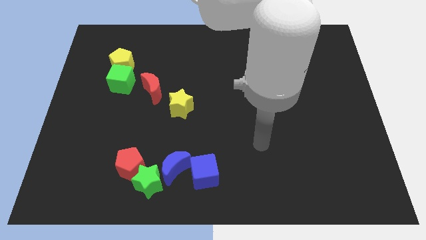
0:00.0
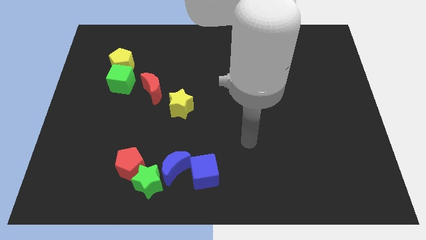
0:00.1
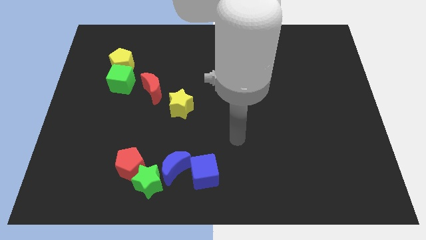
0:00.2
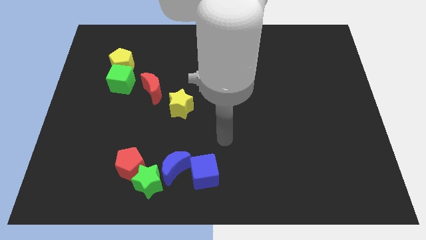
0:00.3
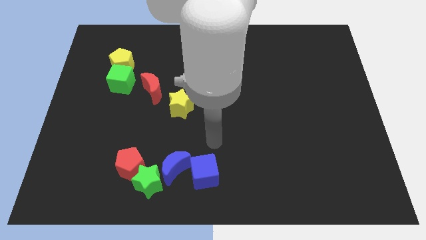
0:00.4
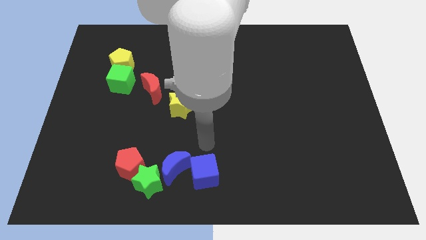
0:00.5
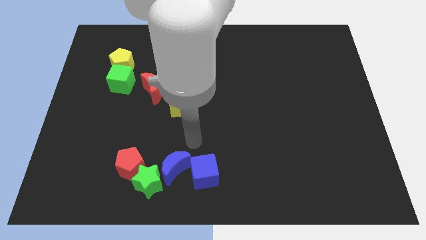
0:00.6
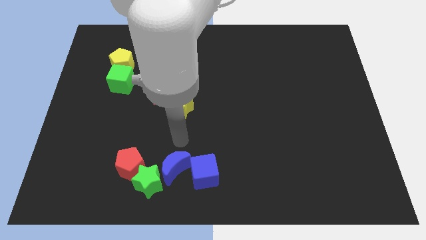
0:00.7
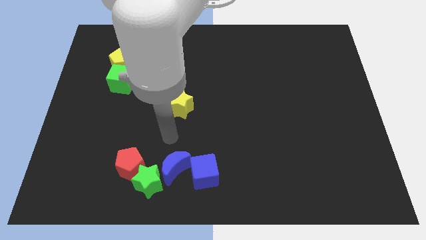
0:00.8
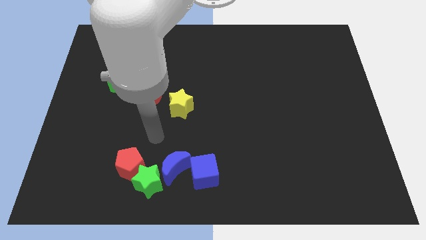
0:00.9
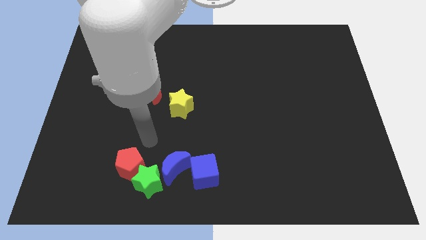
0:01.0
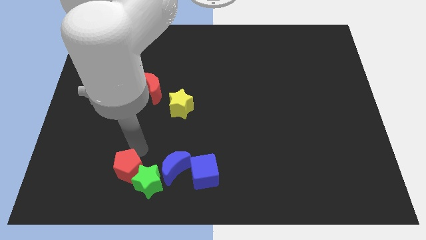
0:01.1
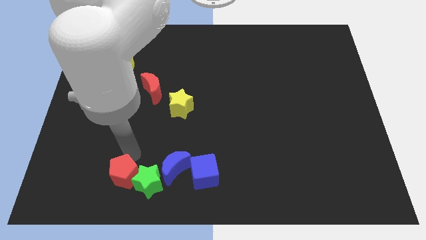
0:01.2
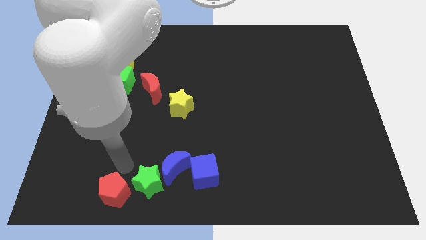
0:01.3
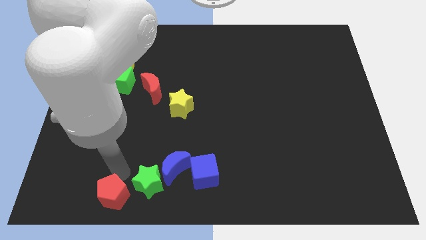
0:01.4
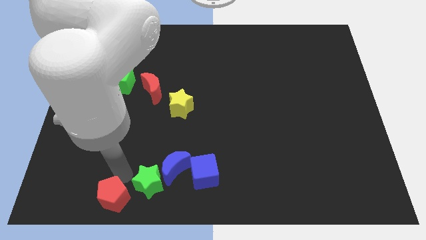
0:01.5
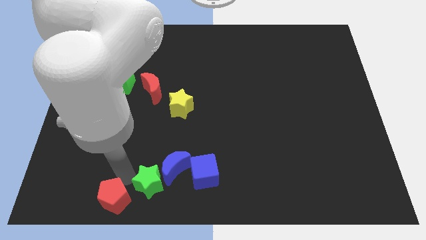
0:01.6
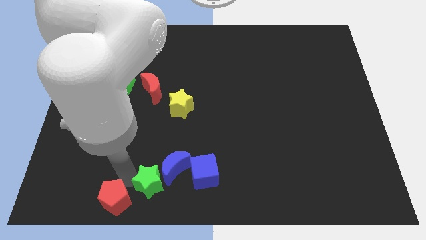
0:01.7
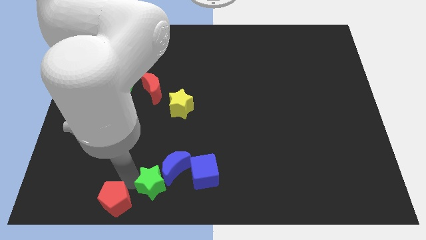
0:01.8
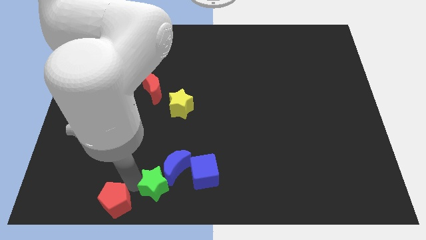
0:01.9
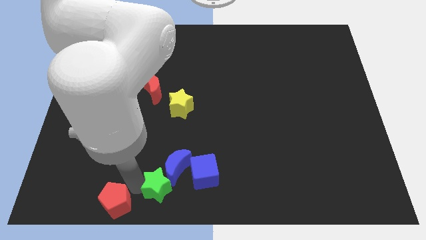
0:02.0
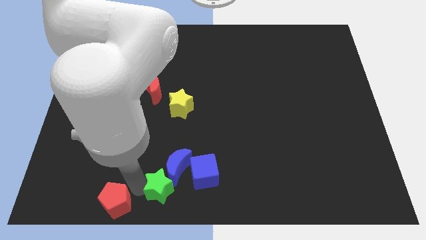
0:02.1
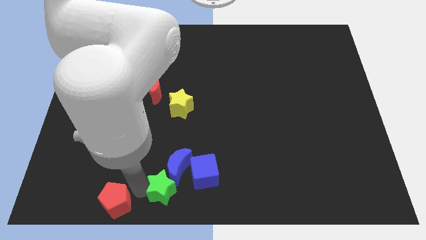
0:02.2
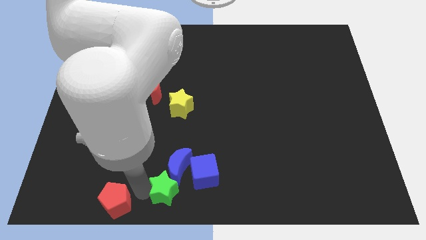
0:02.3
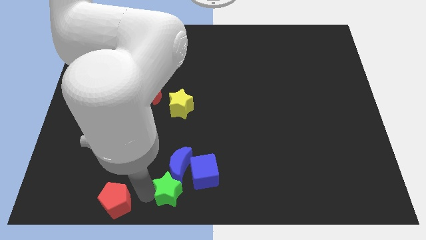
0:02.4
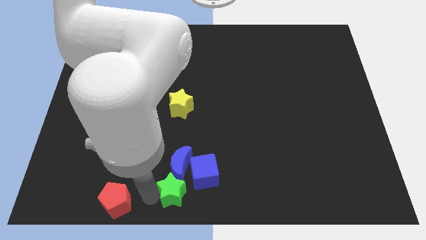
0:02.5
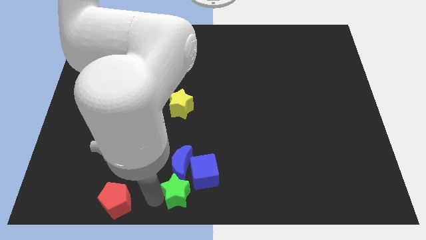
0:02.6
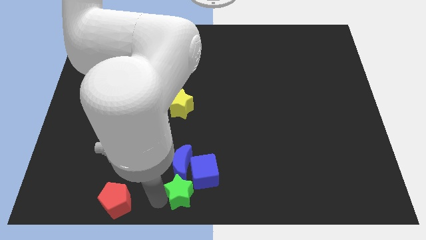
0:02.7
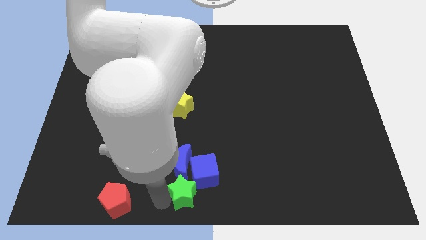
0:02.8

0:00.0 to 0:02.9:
slide the green star a little bit right

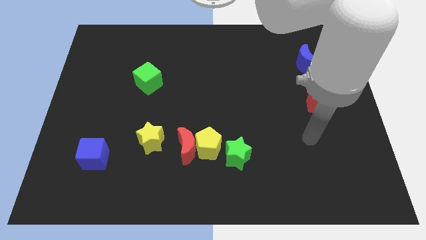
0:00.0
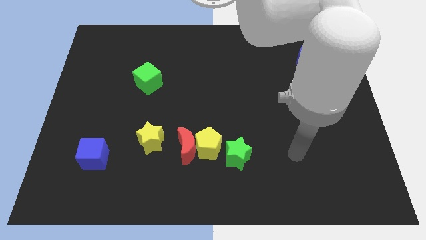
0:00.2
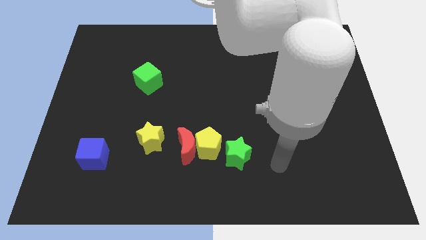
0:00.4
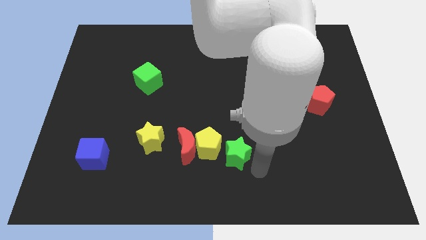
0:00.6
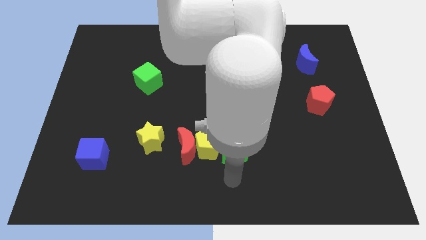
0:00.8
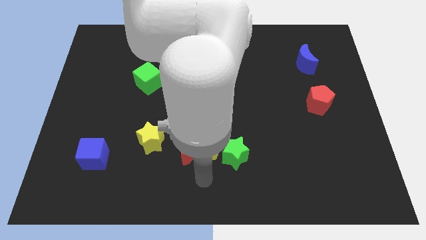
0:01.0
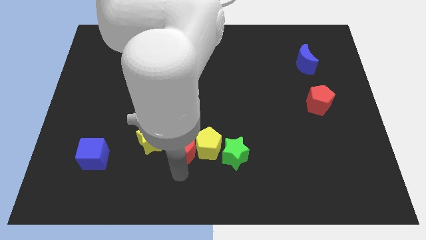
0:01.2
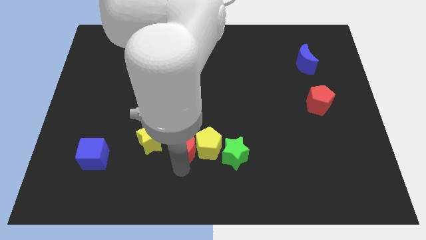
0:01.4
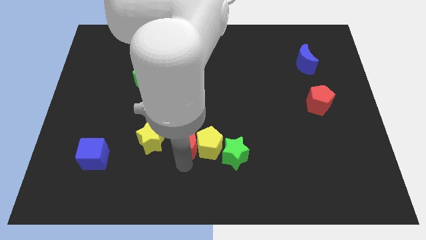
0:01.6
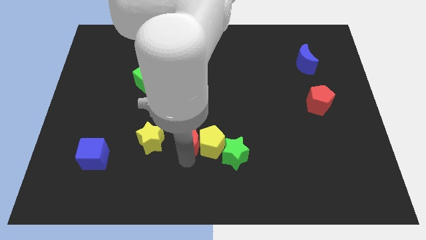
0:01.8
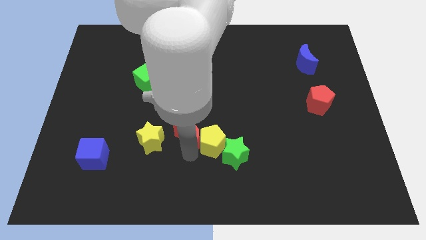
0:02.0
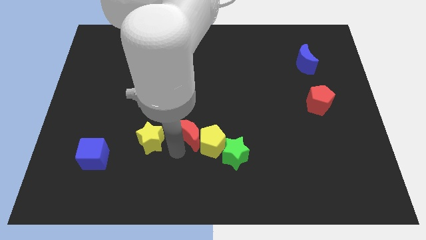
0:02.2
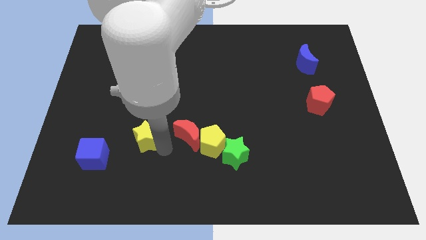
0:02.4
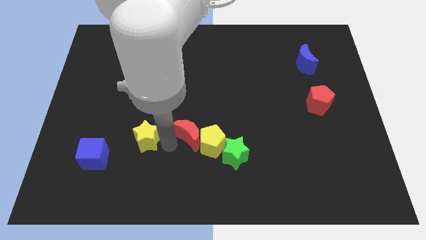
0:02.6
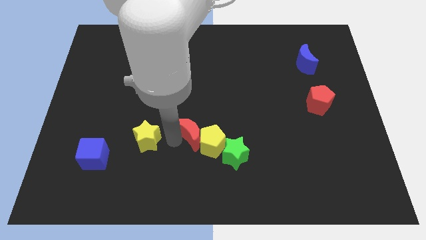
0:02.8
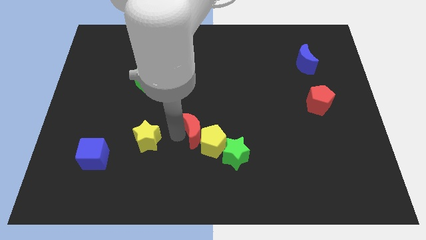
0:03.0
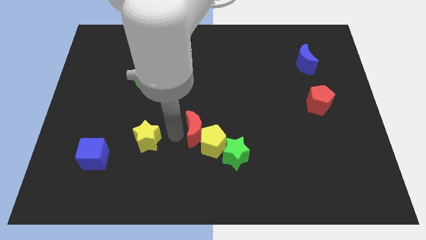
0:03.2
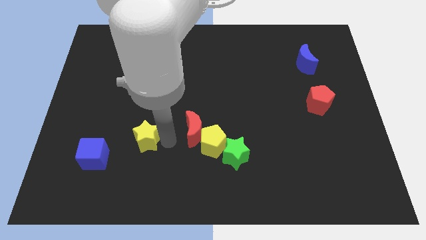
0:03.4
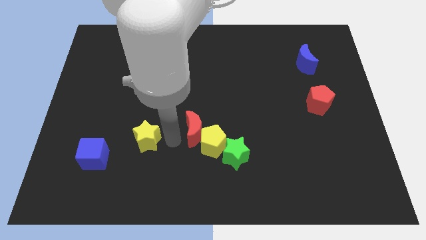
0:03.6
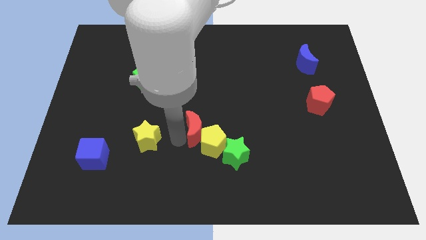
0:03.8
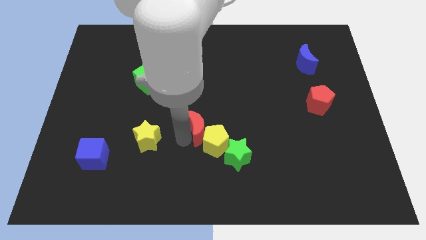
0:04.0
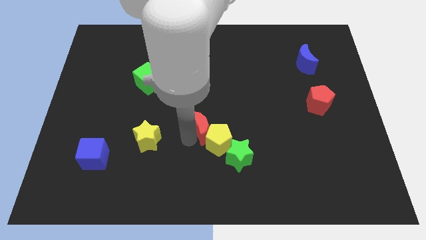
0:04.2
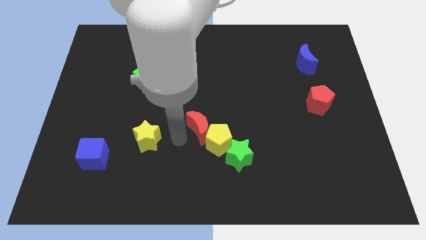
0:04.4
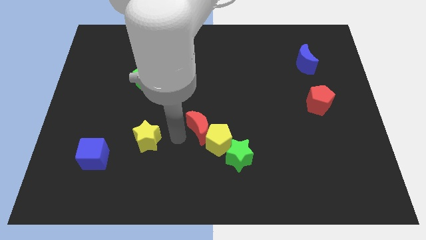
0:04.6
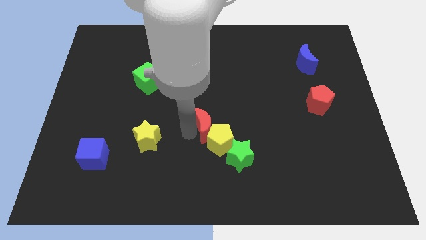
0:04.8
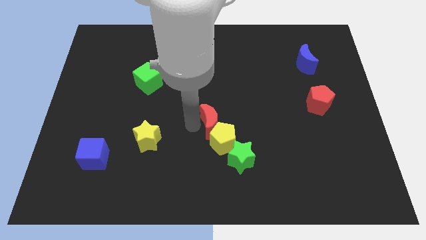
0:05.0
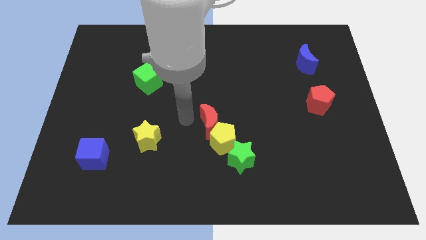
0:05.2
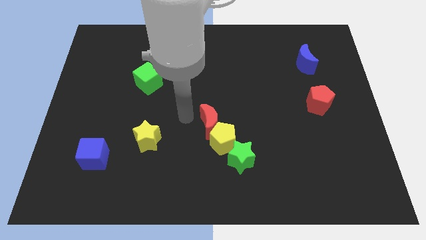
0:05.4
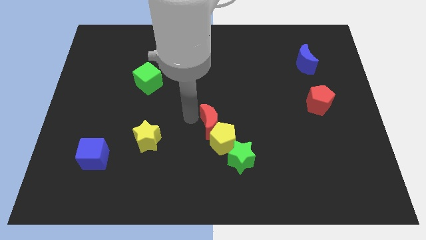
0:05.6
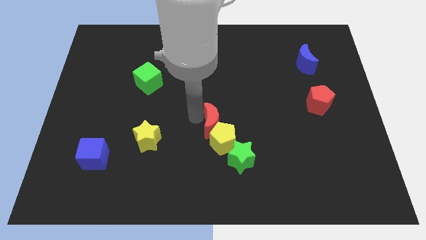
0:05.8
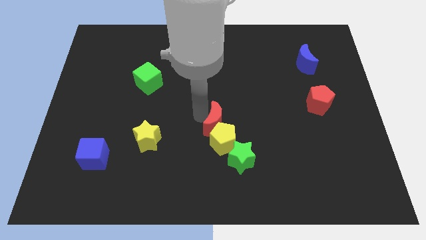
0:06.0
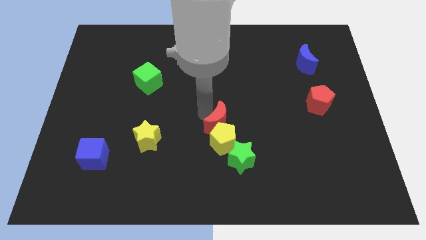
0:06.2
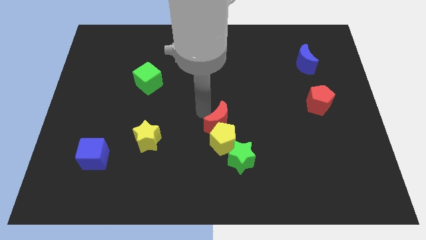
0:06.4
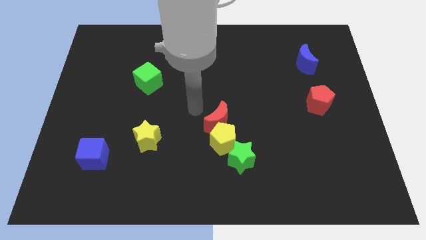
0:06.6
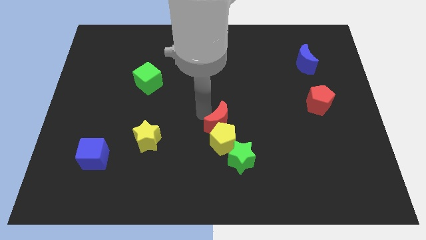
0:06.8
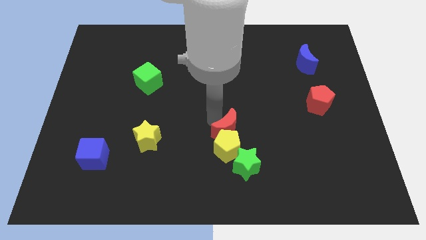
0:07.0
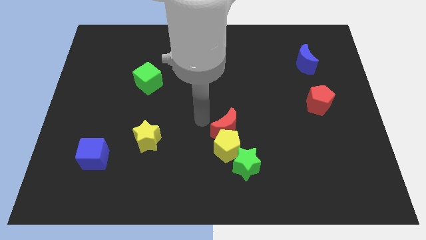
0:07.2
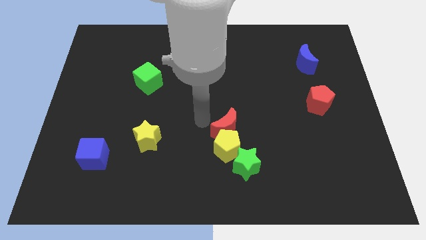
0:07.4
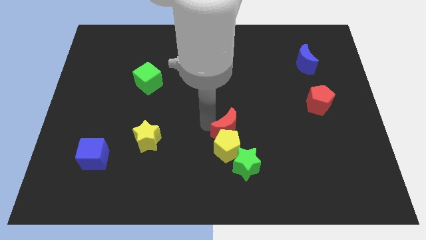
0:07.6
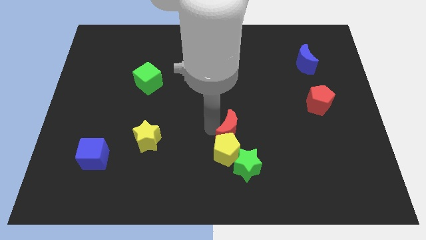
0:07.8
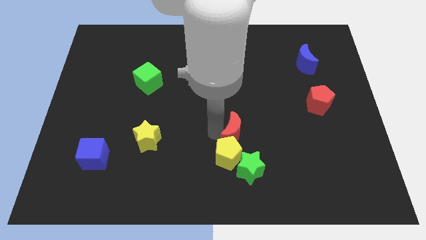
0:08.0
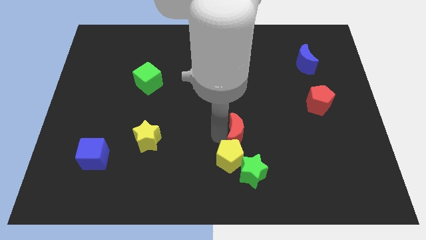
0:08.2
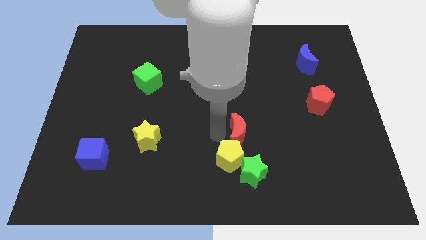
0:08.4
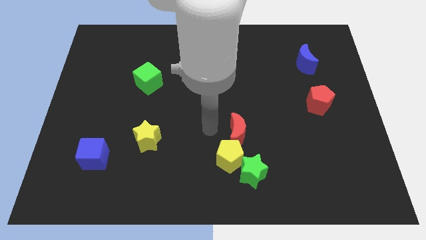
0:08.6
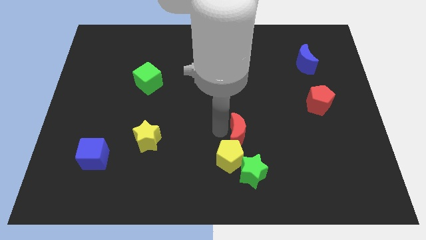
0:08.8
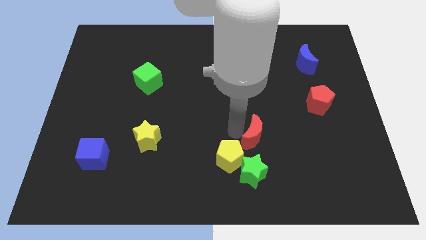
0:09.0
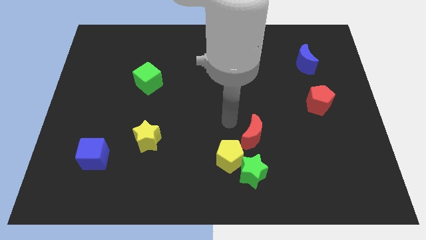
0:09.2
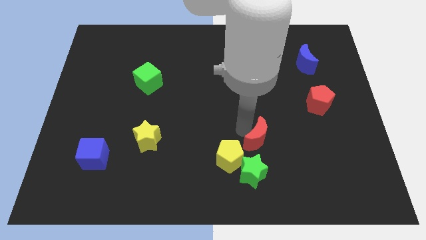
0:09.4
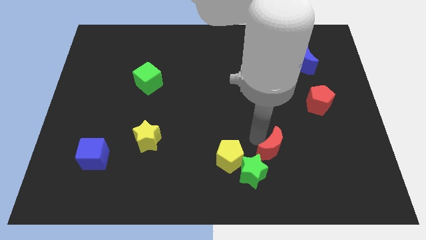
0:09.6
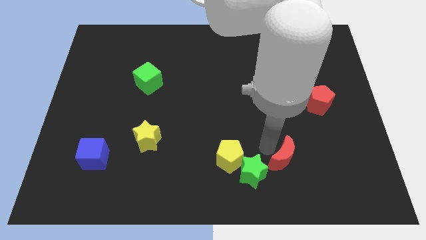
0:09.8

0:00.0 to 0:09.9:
move the red moon to the right

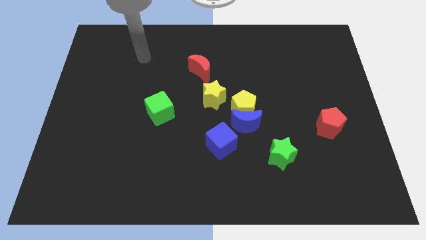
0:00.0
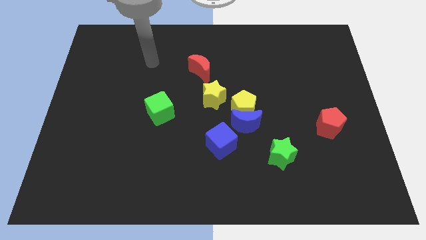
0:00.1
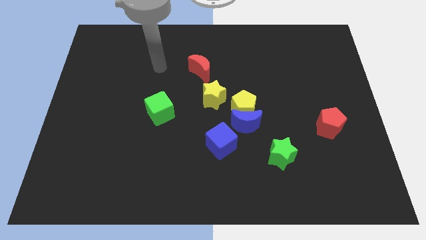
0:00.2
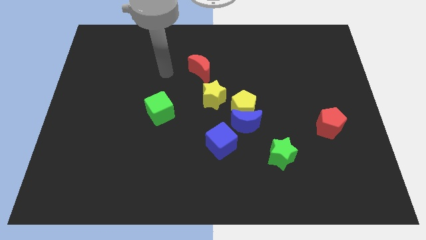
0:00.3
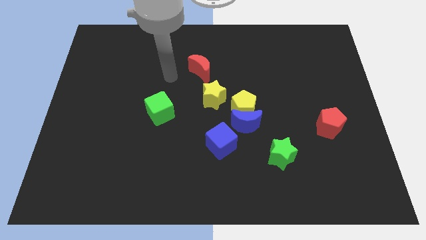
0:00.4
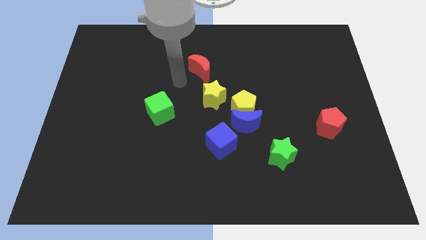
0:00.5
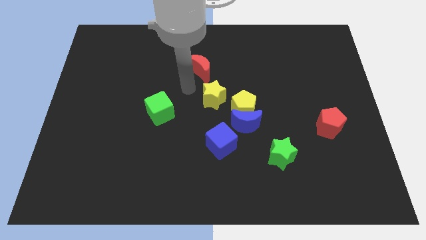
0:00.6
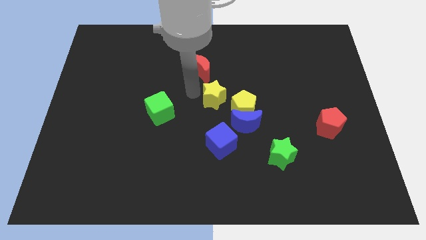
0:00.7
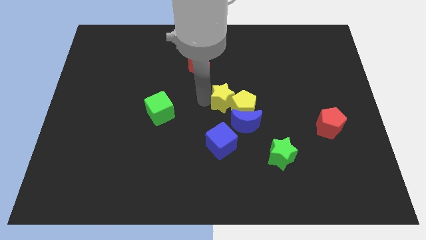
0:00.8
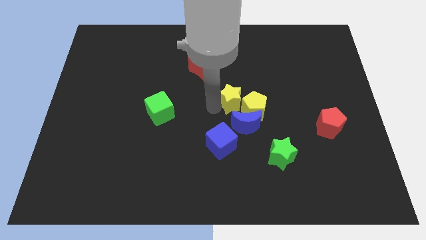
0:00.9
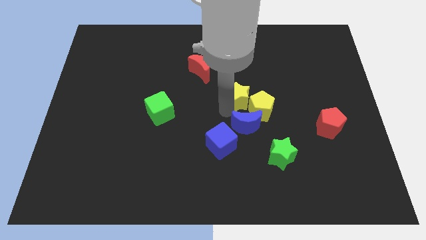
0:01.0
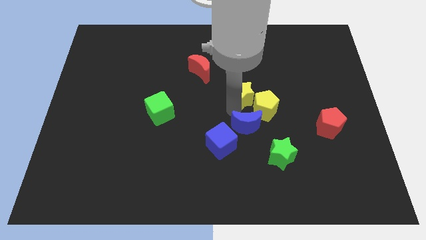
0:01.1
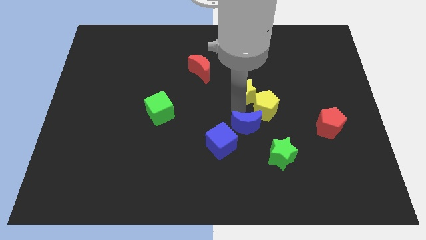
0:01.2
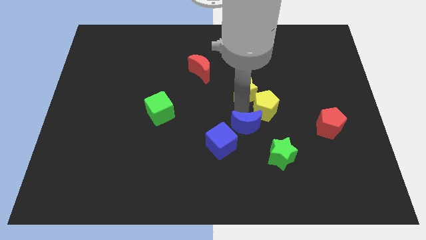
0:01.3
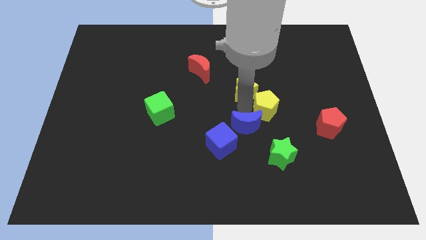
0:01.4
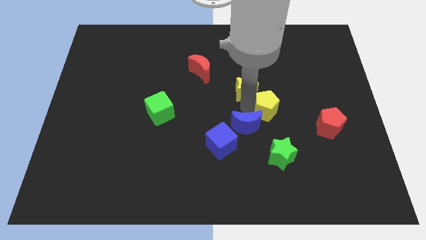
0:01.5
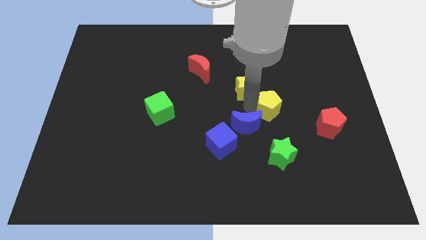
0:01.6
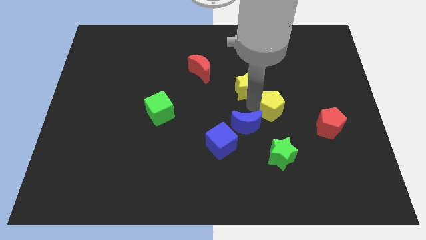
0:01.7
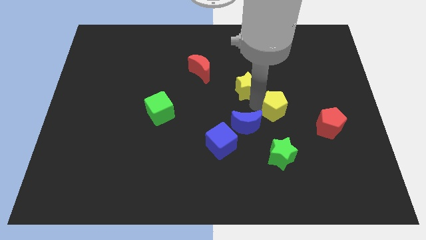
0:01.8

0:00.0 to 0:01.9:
slide the yellow pentagon somewhat right
